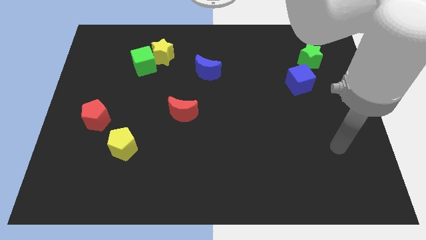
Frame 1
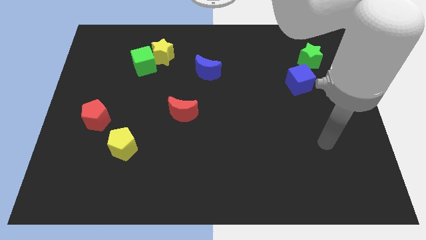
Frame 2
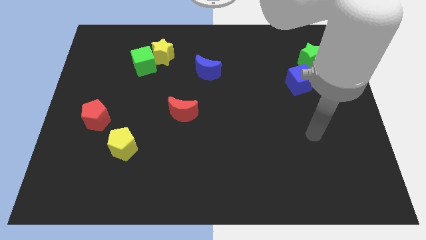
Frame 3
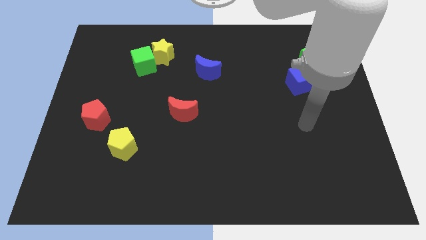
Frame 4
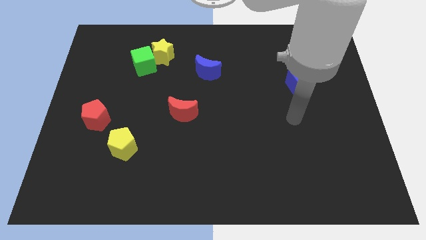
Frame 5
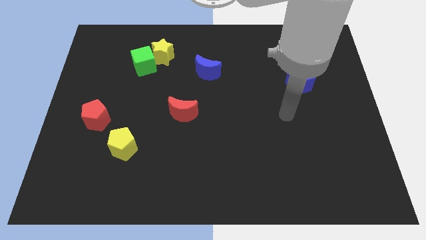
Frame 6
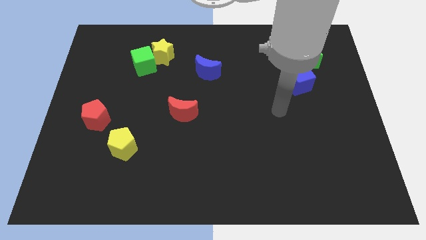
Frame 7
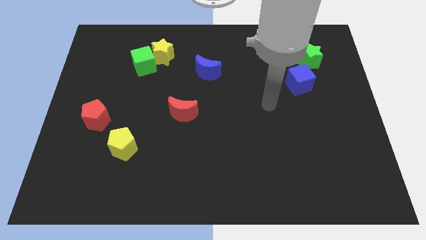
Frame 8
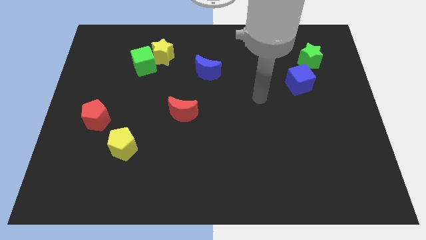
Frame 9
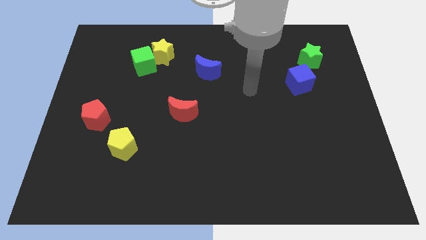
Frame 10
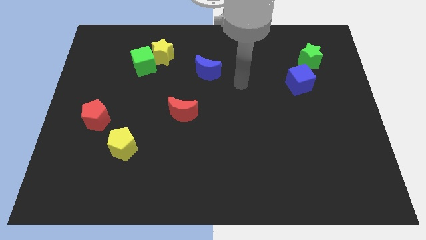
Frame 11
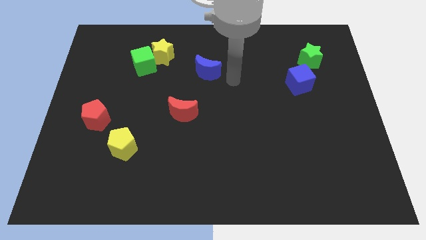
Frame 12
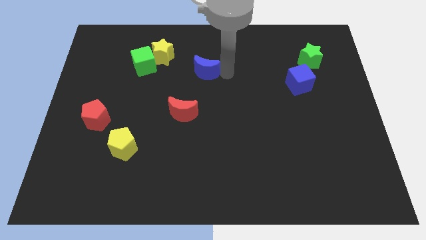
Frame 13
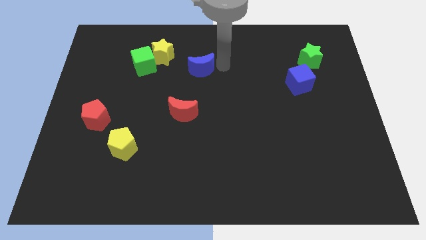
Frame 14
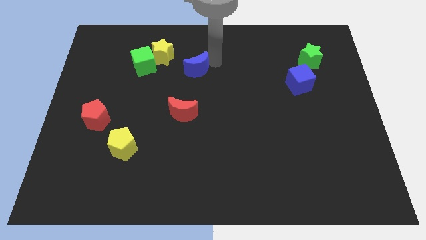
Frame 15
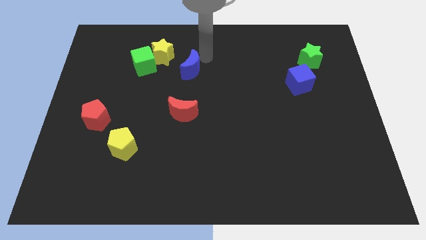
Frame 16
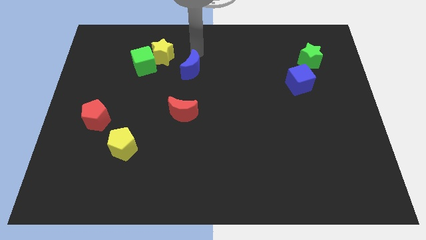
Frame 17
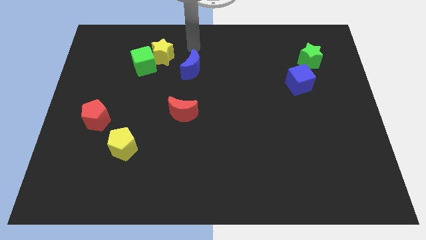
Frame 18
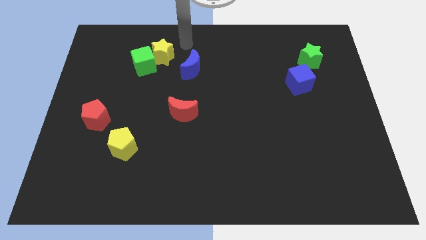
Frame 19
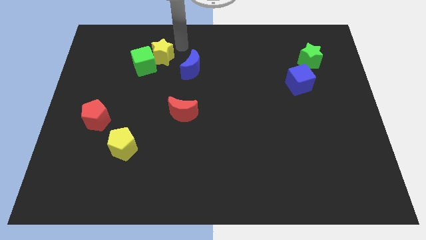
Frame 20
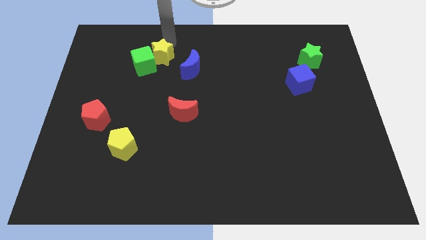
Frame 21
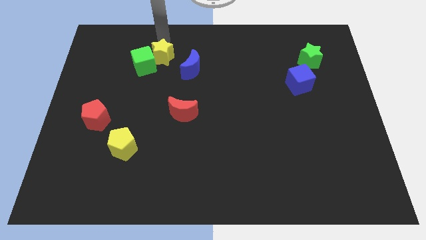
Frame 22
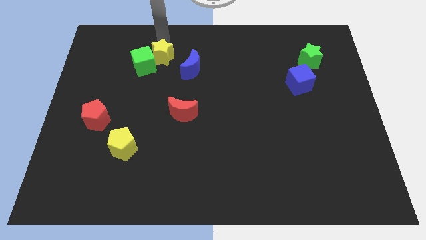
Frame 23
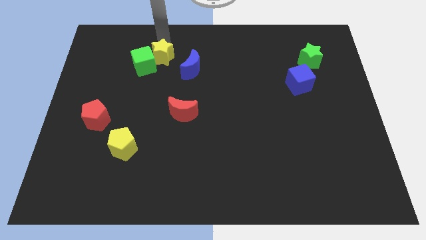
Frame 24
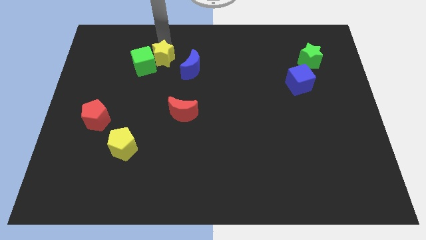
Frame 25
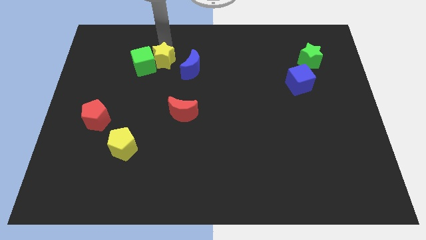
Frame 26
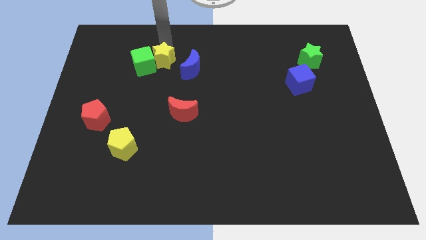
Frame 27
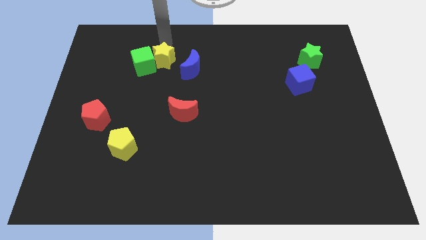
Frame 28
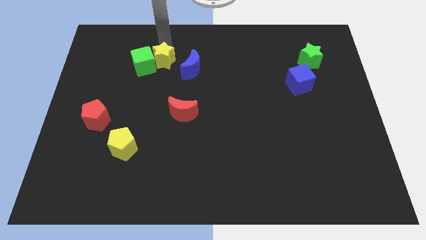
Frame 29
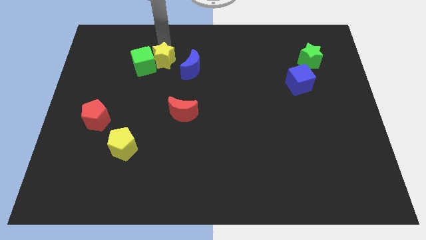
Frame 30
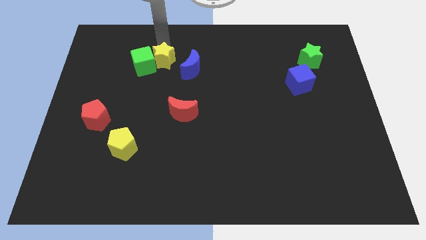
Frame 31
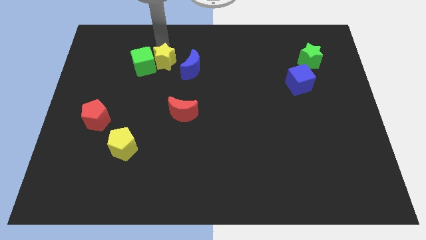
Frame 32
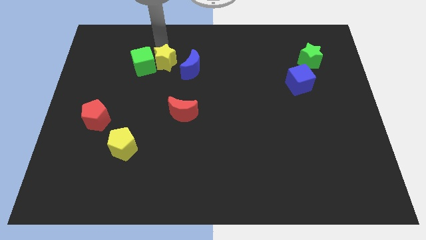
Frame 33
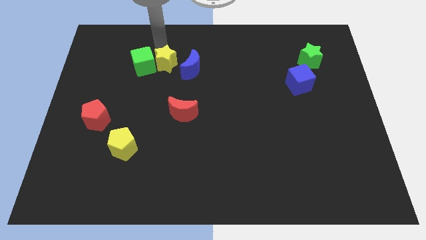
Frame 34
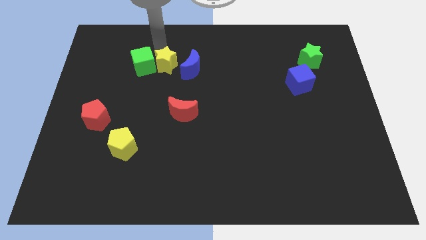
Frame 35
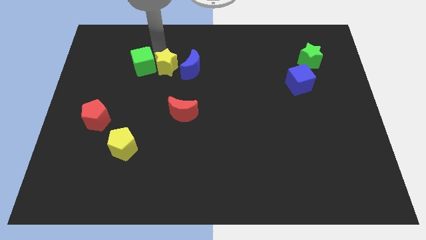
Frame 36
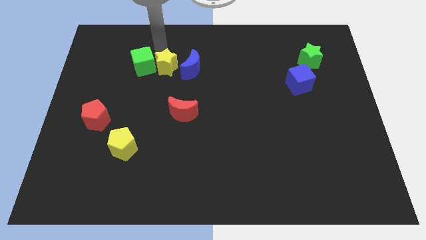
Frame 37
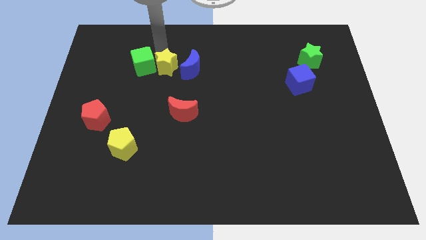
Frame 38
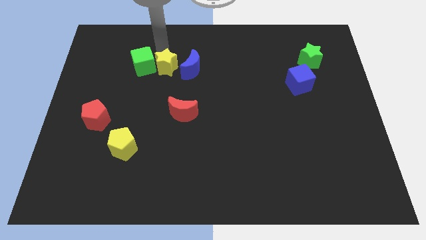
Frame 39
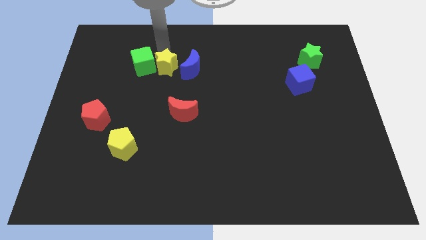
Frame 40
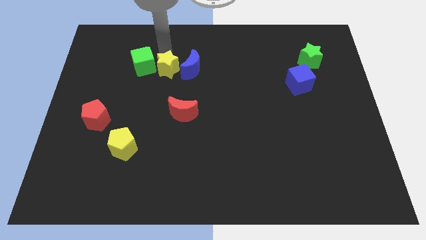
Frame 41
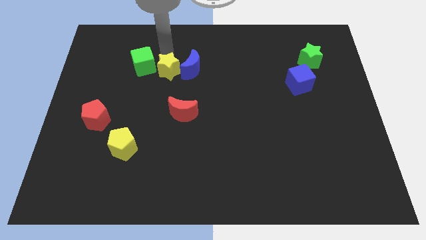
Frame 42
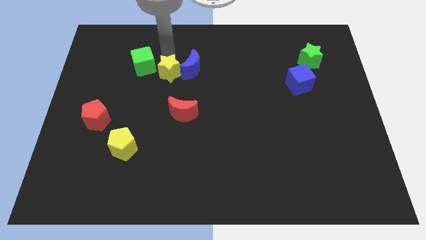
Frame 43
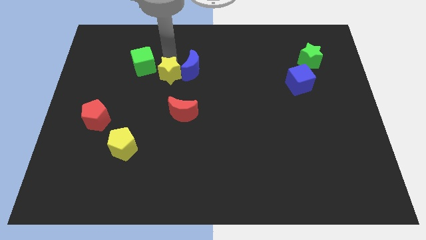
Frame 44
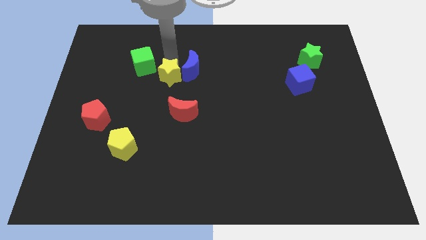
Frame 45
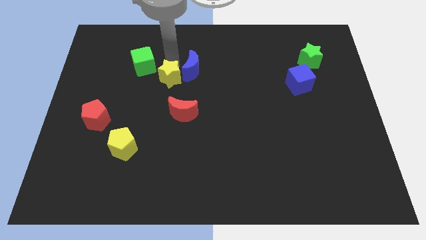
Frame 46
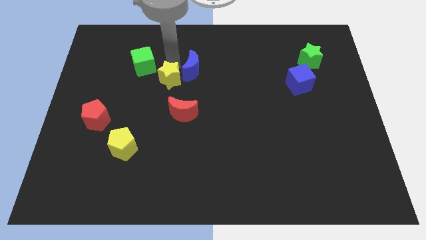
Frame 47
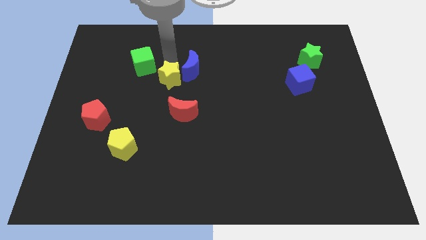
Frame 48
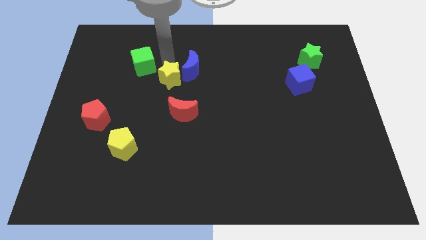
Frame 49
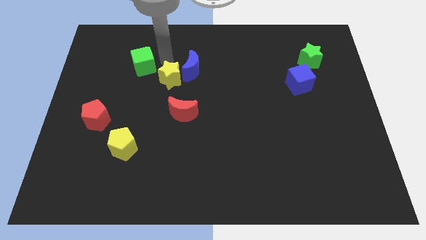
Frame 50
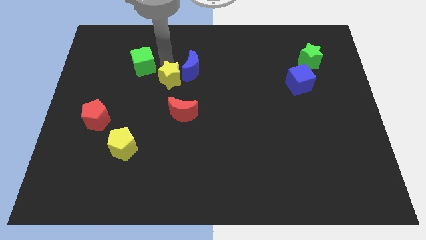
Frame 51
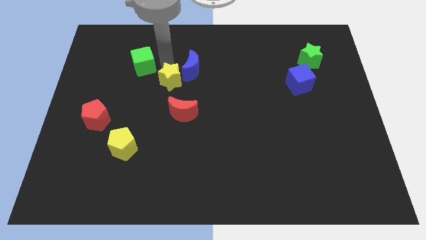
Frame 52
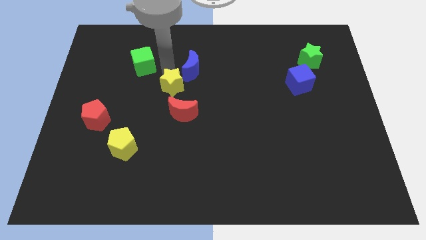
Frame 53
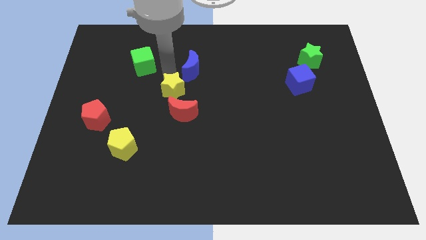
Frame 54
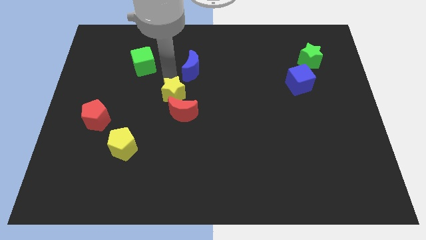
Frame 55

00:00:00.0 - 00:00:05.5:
slide the yellow star next to the red moon
